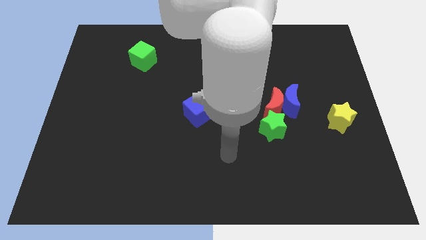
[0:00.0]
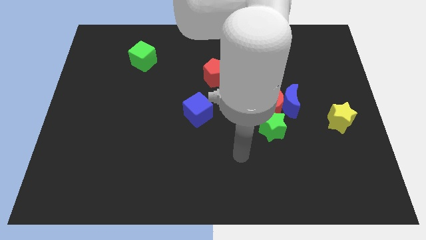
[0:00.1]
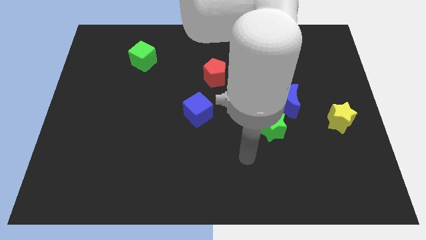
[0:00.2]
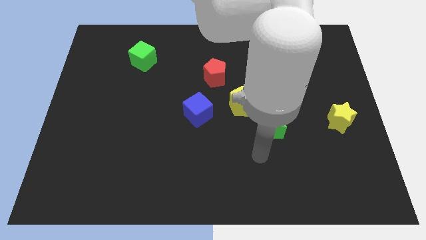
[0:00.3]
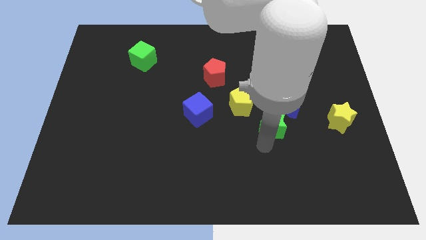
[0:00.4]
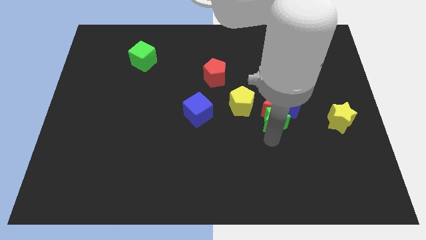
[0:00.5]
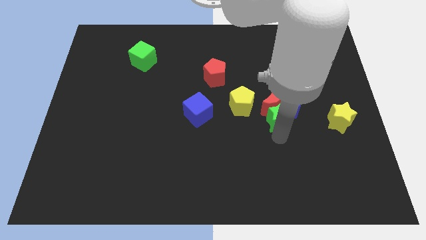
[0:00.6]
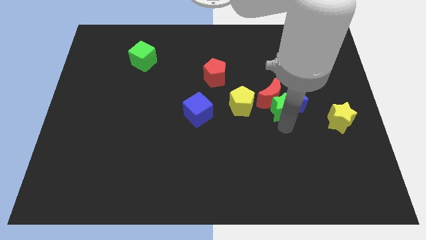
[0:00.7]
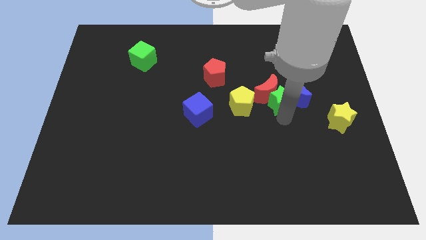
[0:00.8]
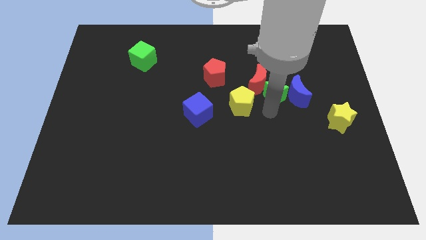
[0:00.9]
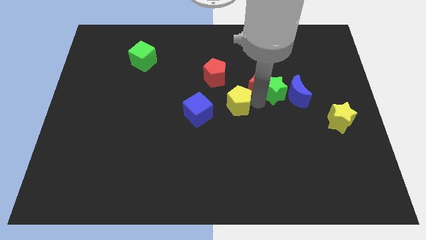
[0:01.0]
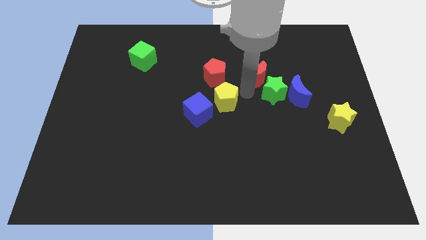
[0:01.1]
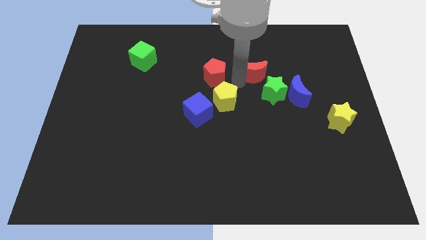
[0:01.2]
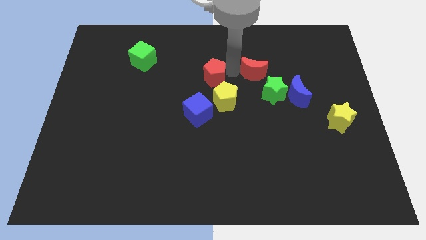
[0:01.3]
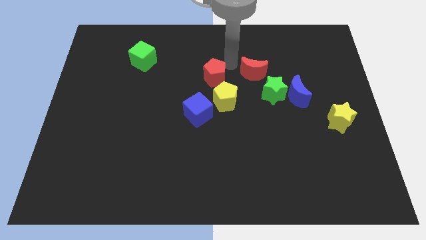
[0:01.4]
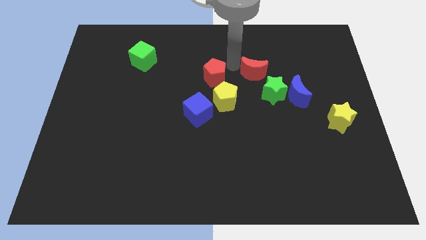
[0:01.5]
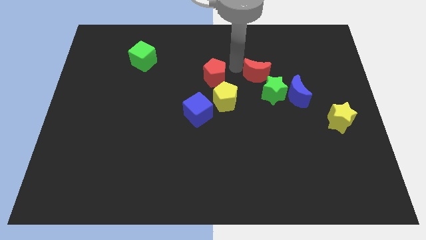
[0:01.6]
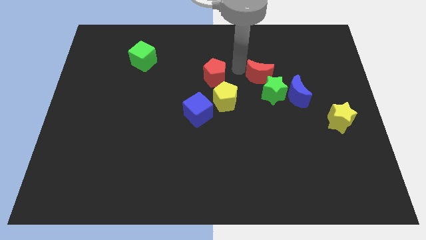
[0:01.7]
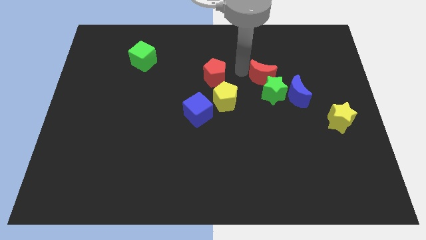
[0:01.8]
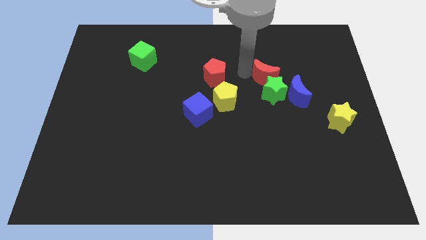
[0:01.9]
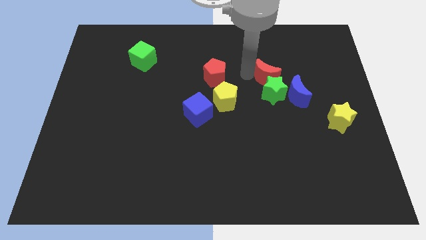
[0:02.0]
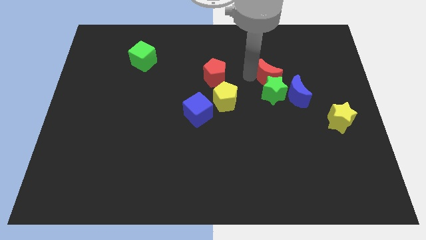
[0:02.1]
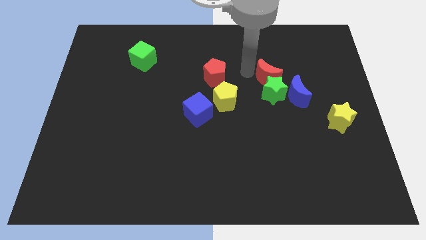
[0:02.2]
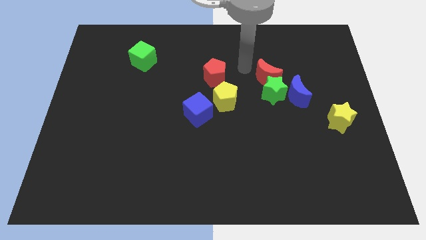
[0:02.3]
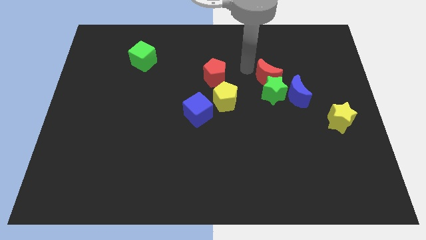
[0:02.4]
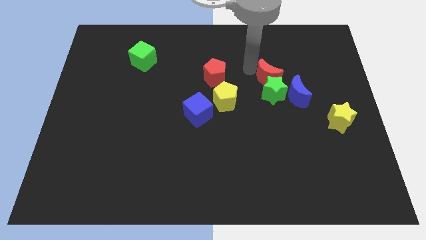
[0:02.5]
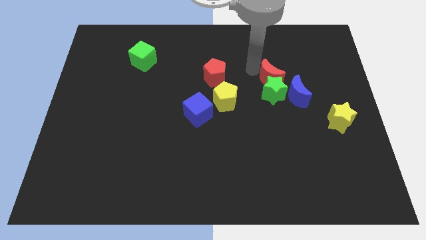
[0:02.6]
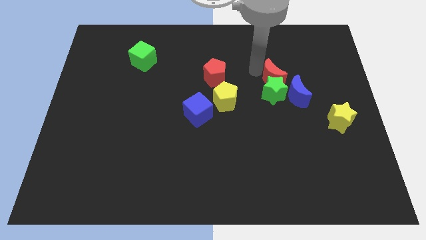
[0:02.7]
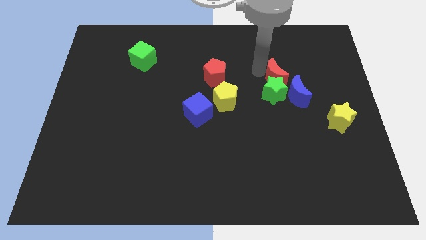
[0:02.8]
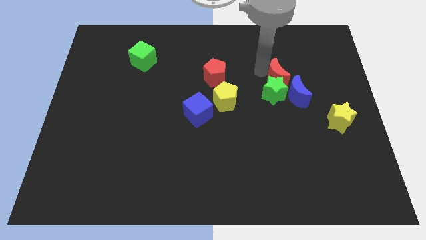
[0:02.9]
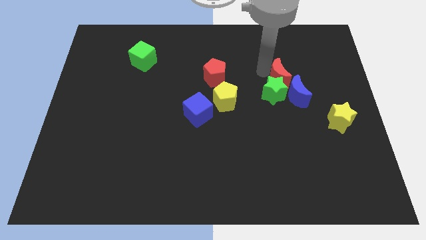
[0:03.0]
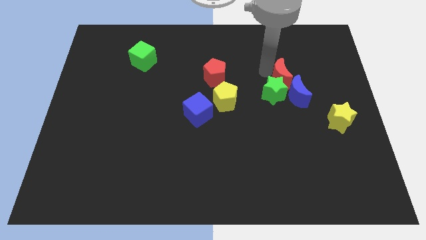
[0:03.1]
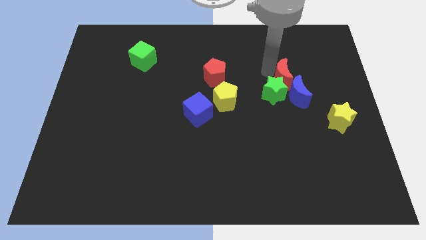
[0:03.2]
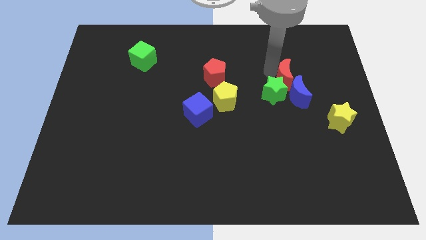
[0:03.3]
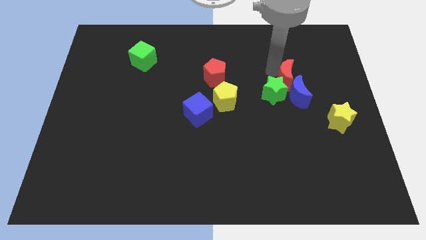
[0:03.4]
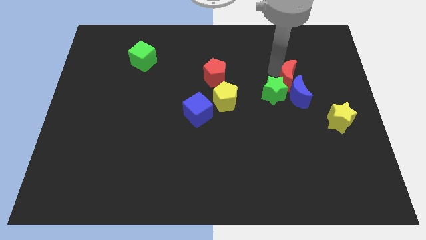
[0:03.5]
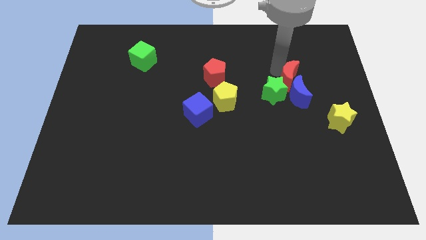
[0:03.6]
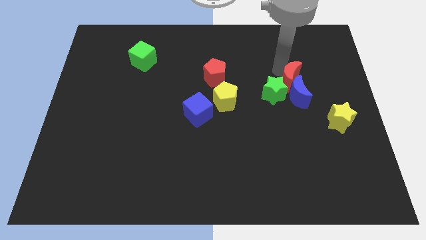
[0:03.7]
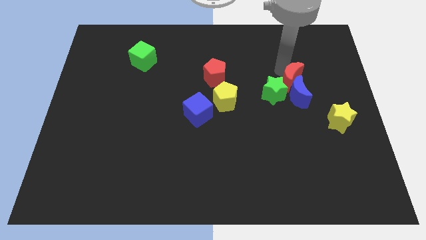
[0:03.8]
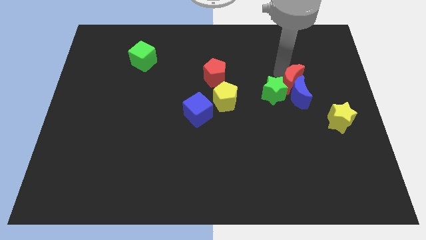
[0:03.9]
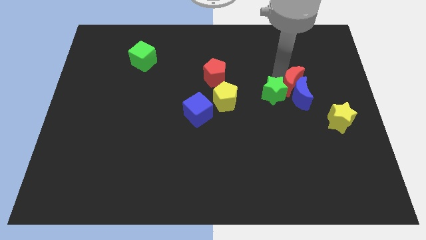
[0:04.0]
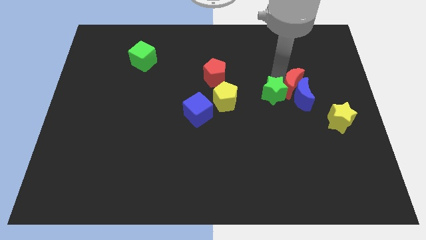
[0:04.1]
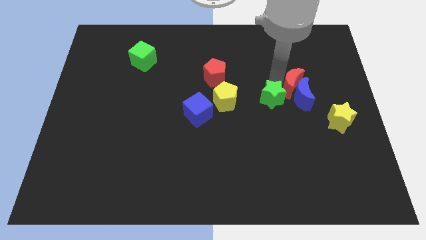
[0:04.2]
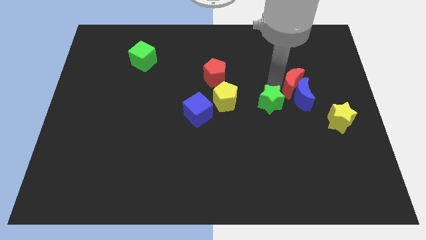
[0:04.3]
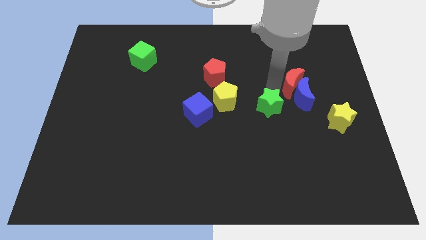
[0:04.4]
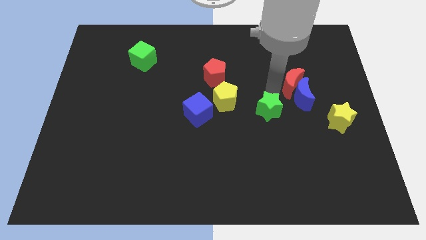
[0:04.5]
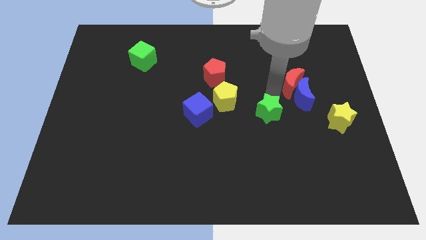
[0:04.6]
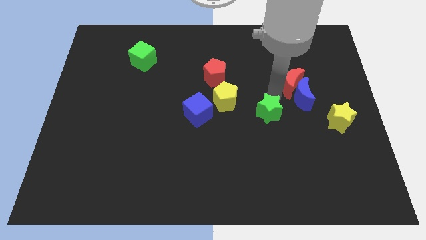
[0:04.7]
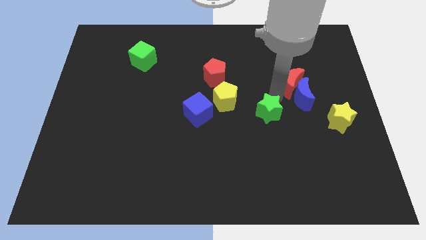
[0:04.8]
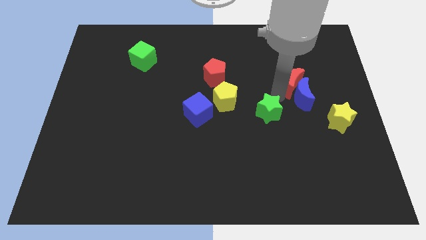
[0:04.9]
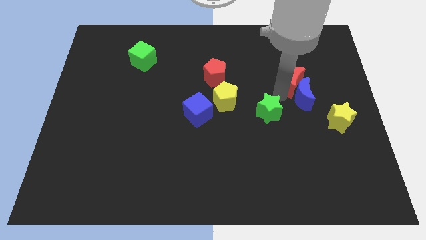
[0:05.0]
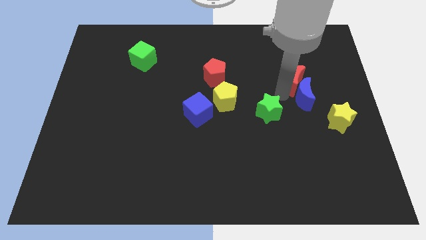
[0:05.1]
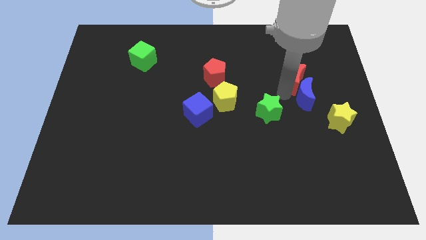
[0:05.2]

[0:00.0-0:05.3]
separate the red moon from the blue moon, green star, and yellow pentagon

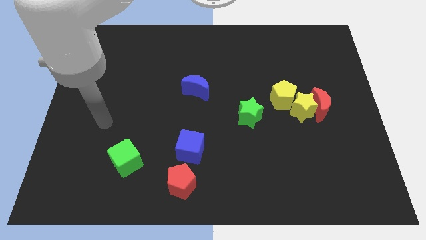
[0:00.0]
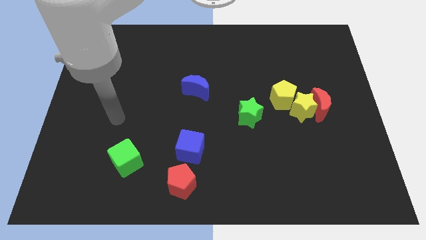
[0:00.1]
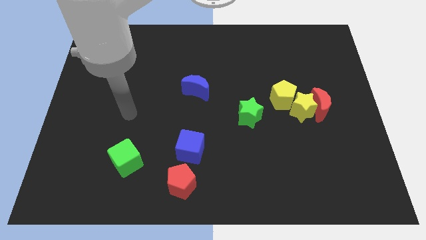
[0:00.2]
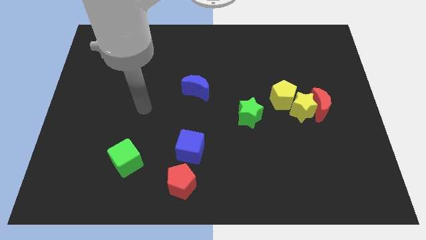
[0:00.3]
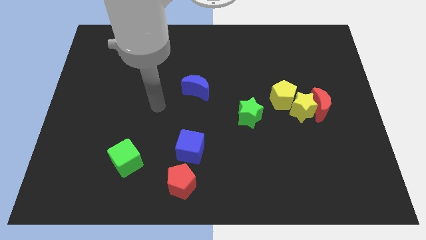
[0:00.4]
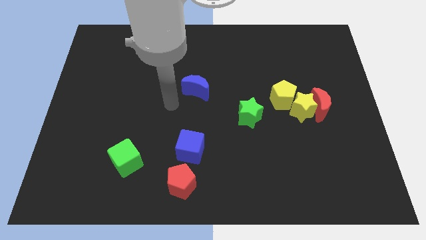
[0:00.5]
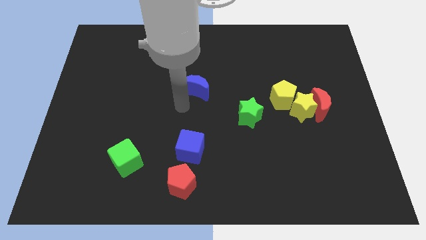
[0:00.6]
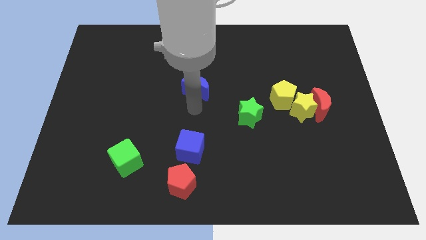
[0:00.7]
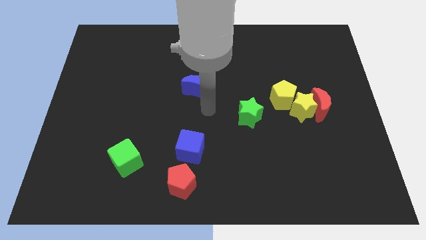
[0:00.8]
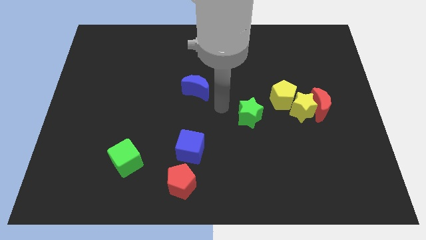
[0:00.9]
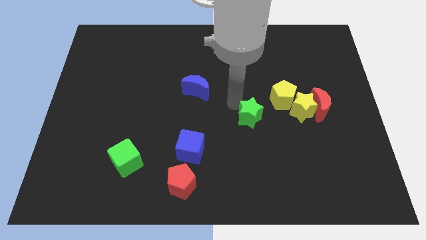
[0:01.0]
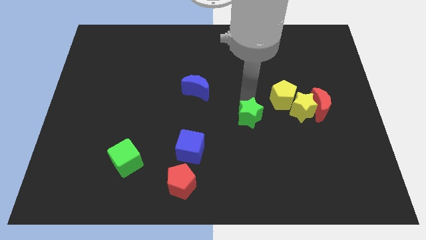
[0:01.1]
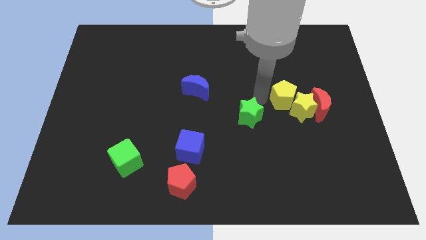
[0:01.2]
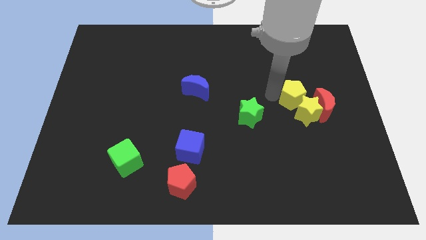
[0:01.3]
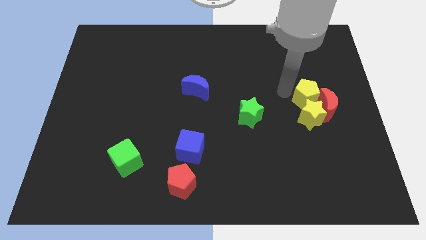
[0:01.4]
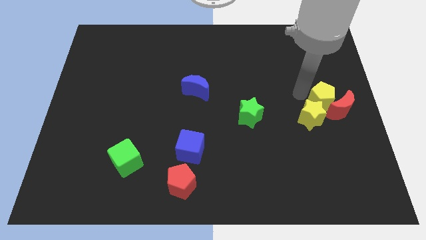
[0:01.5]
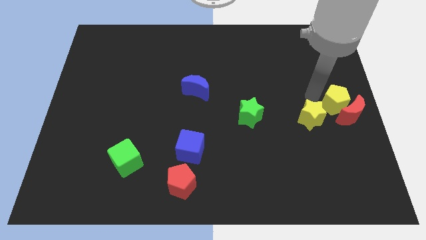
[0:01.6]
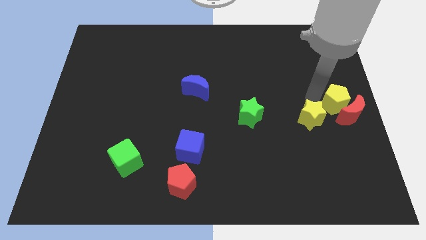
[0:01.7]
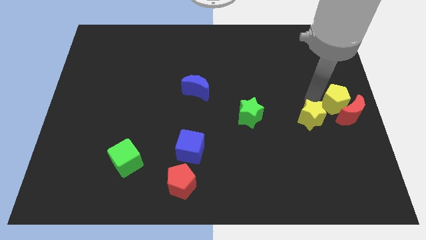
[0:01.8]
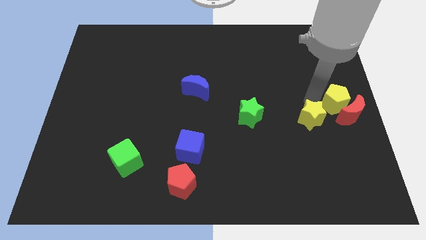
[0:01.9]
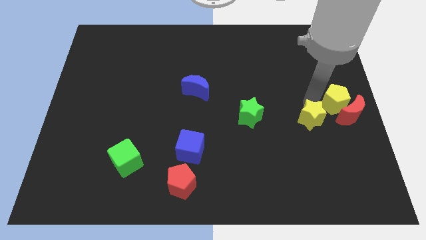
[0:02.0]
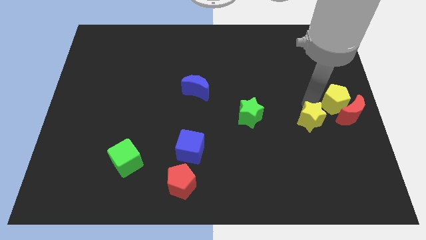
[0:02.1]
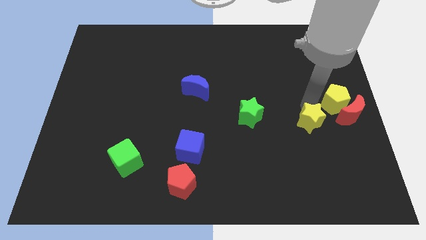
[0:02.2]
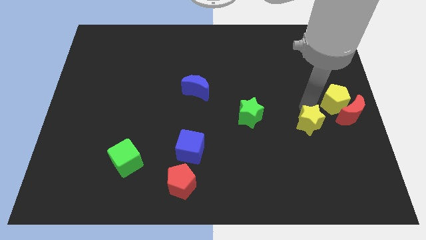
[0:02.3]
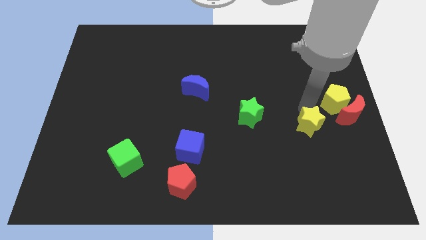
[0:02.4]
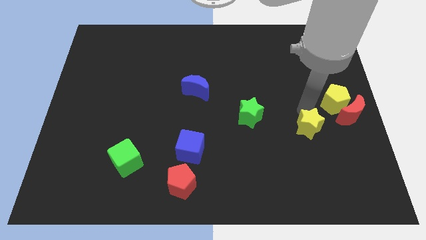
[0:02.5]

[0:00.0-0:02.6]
pull the yellow star apart from the red moon and yellow pentagon

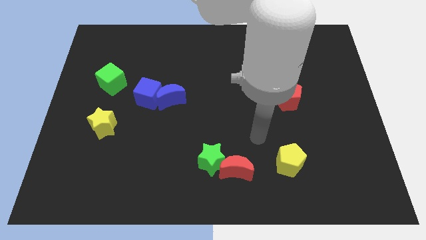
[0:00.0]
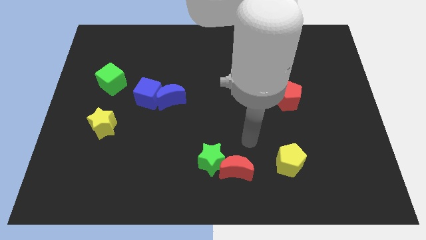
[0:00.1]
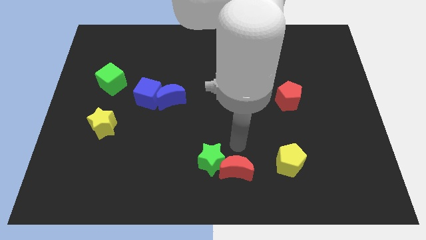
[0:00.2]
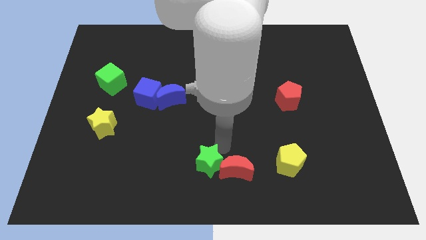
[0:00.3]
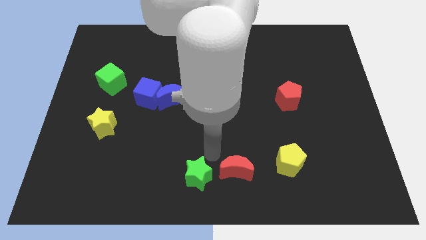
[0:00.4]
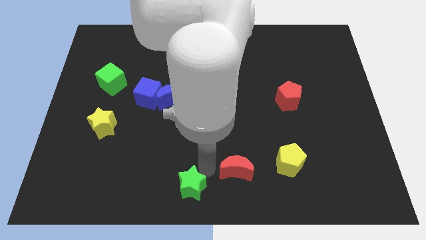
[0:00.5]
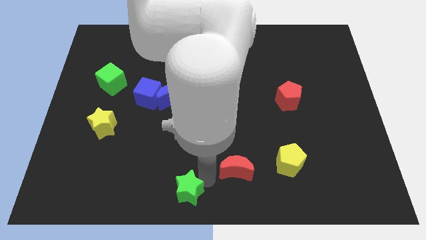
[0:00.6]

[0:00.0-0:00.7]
move the red moon away from the green star

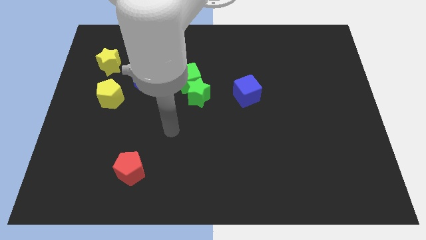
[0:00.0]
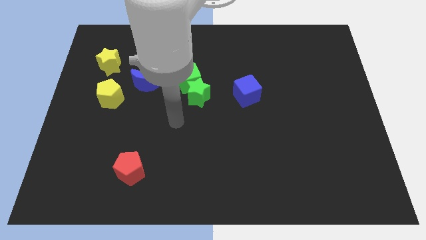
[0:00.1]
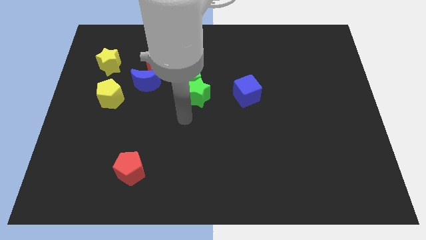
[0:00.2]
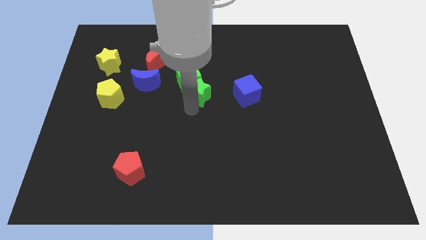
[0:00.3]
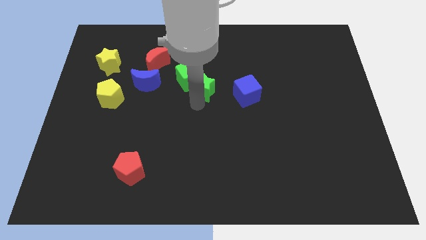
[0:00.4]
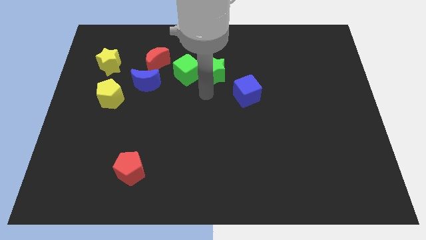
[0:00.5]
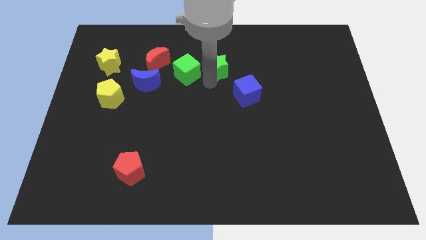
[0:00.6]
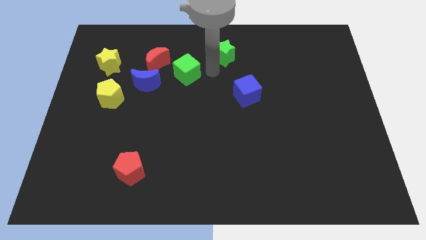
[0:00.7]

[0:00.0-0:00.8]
move the green cube away from the green star
